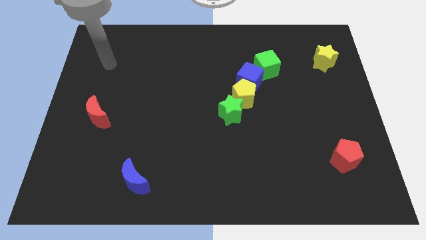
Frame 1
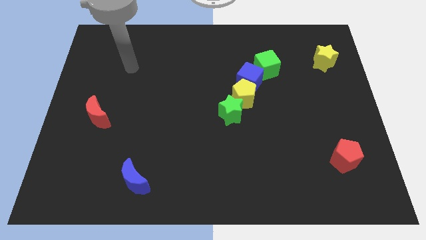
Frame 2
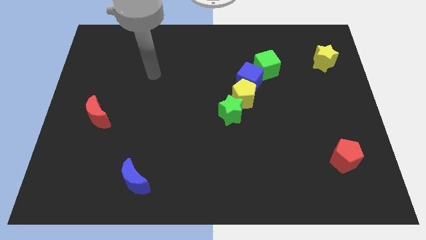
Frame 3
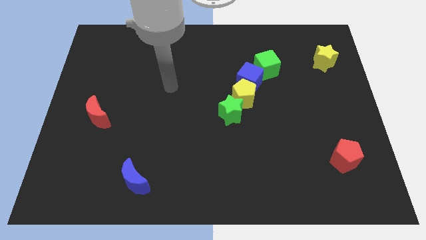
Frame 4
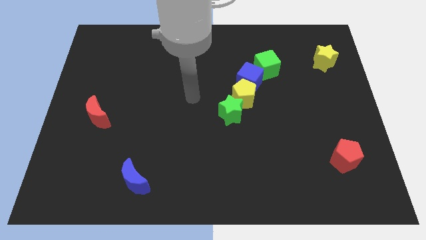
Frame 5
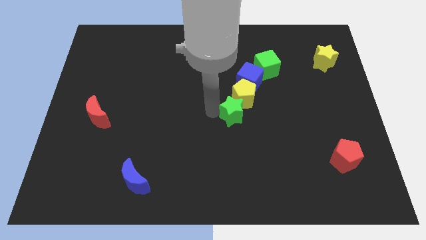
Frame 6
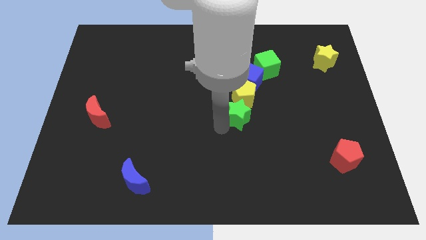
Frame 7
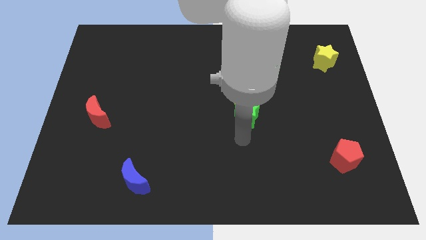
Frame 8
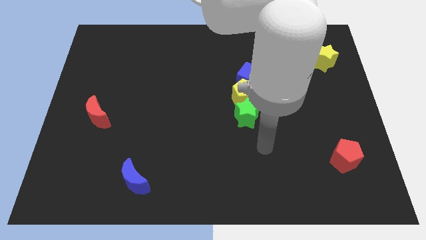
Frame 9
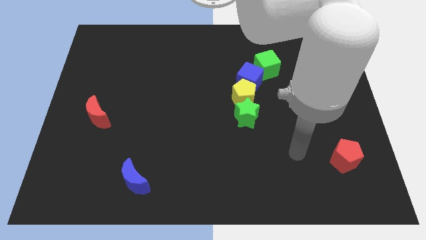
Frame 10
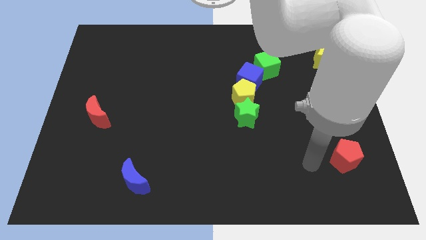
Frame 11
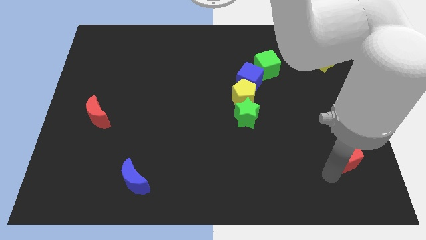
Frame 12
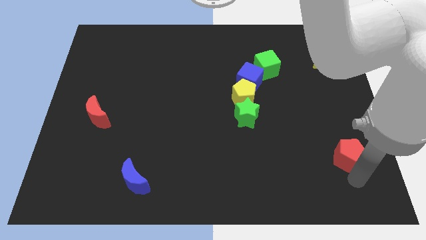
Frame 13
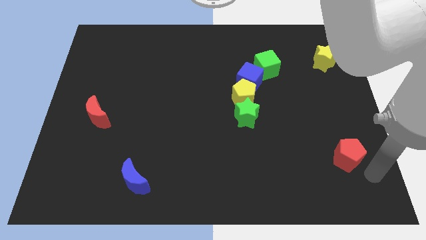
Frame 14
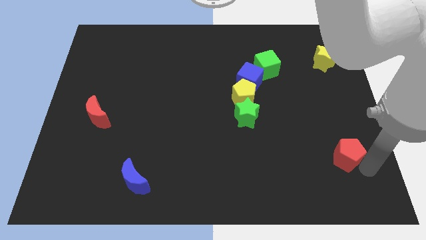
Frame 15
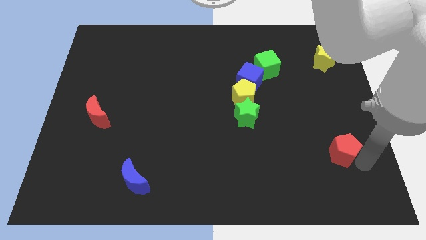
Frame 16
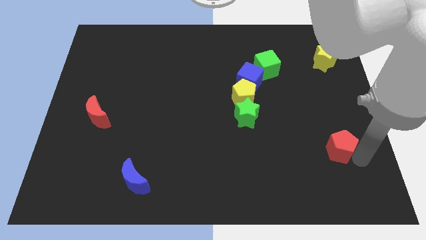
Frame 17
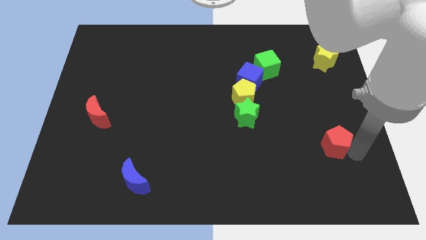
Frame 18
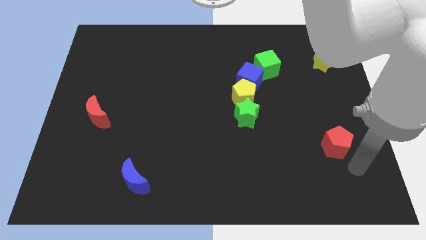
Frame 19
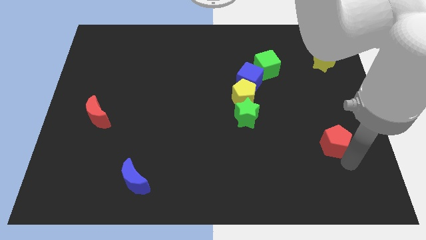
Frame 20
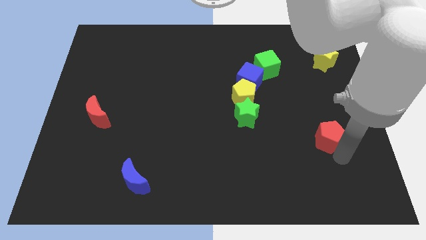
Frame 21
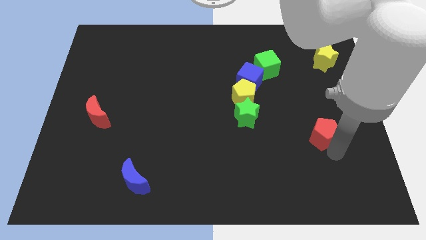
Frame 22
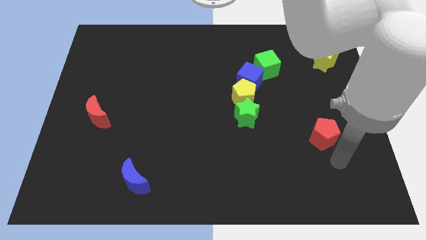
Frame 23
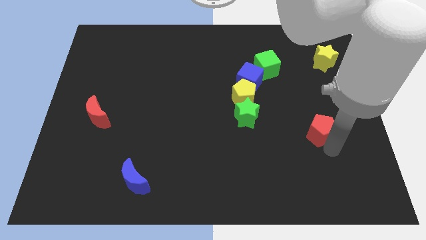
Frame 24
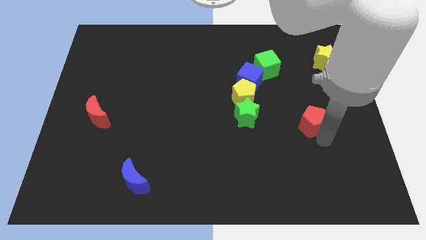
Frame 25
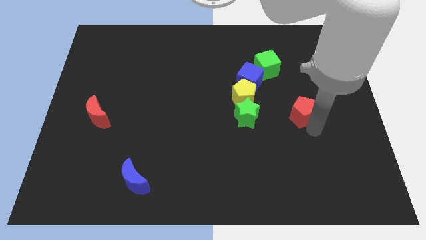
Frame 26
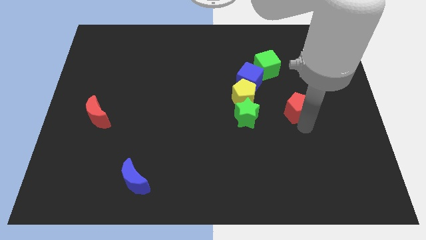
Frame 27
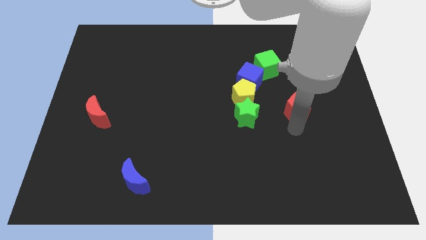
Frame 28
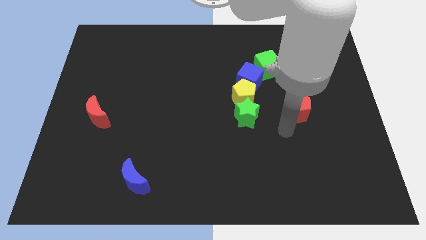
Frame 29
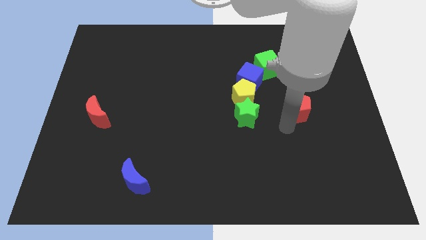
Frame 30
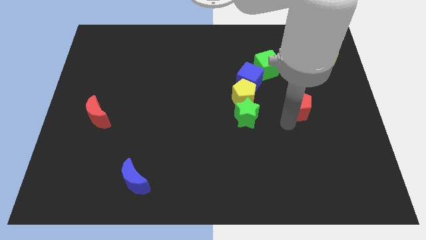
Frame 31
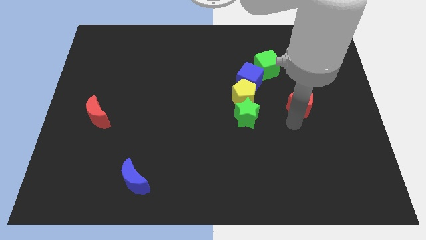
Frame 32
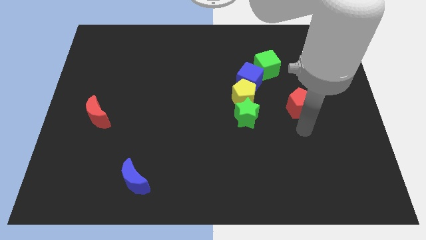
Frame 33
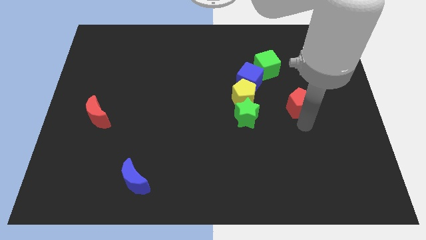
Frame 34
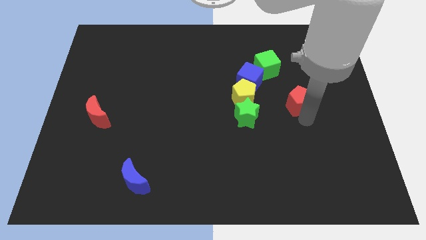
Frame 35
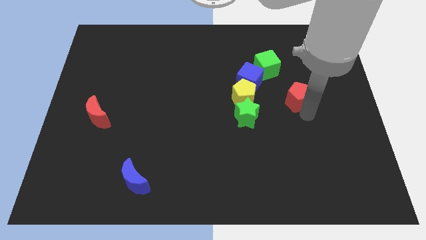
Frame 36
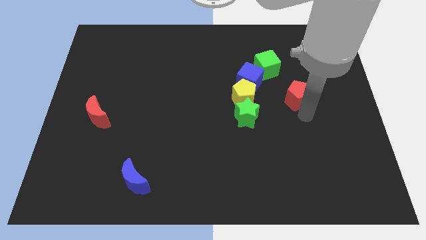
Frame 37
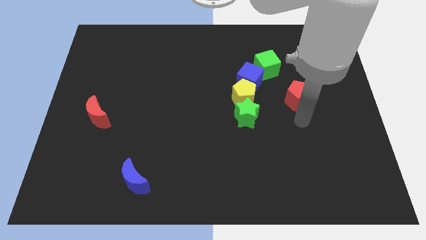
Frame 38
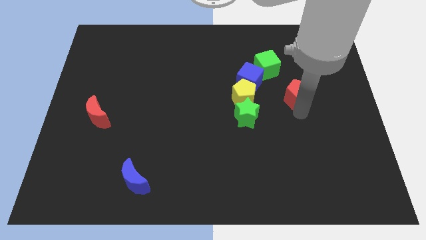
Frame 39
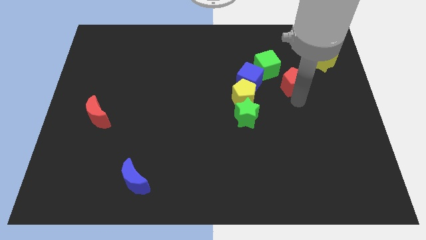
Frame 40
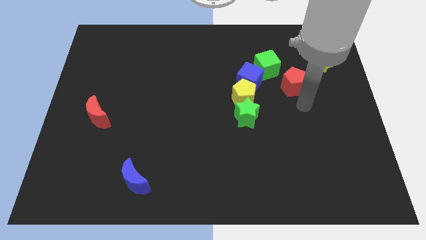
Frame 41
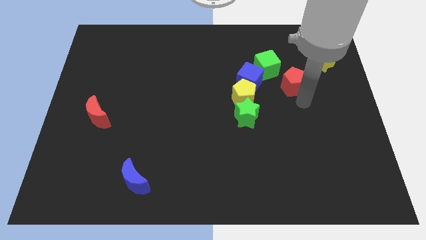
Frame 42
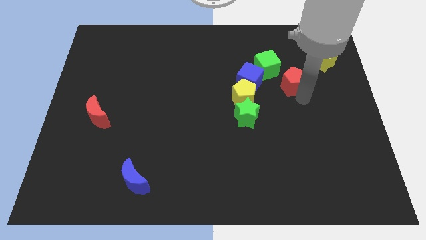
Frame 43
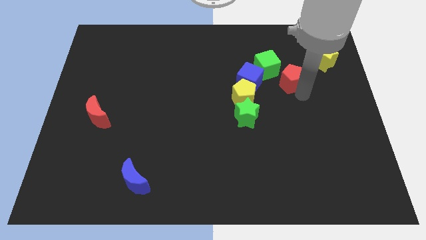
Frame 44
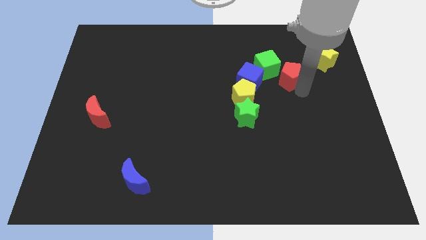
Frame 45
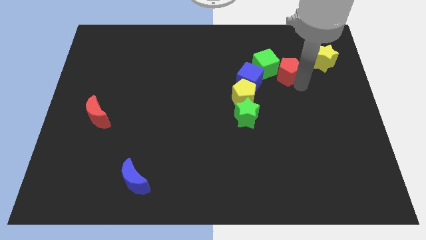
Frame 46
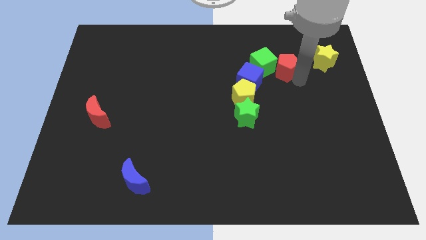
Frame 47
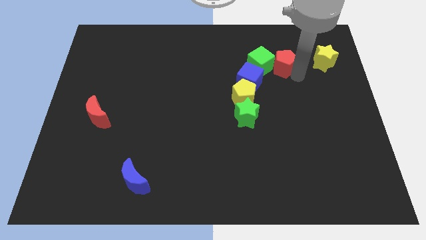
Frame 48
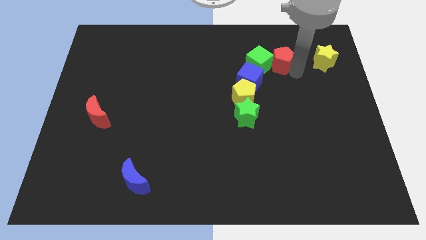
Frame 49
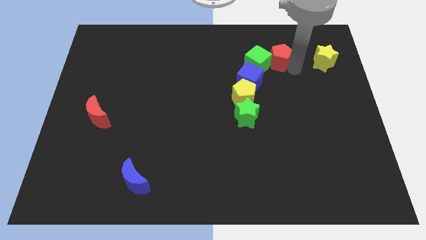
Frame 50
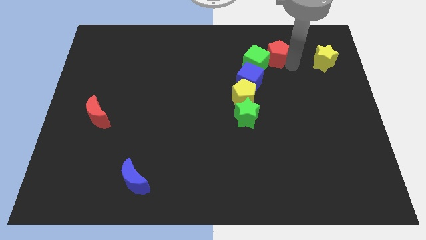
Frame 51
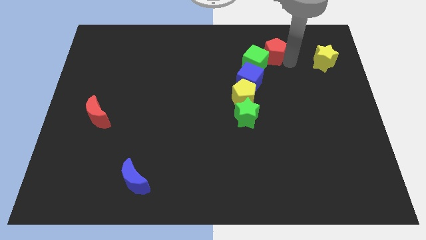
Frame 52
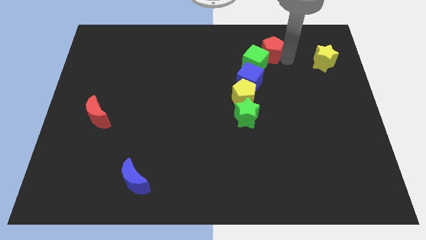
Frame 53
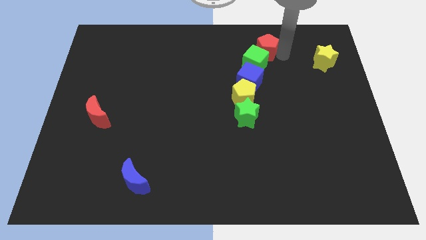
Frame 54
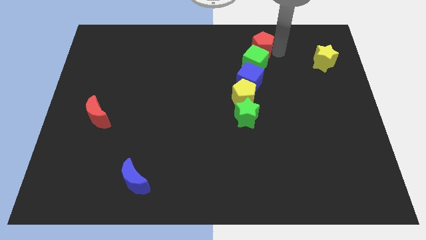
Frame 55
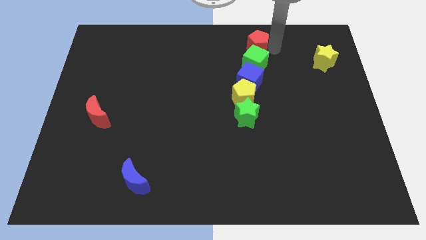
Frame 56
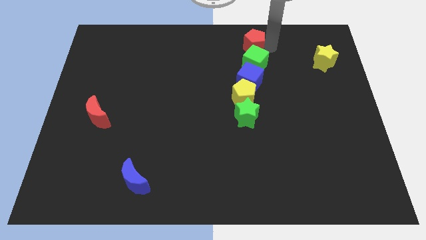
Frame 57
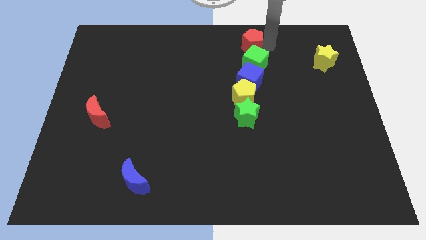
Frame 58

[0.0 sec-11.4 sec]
push the red pentagon to the top side

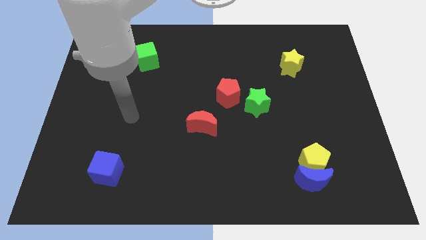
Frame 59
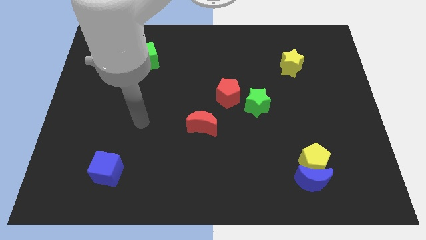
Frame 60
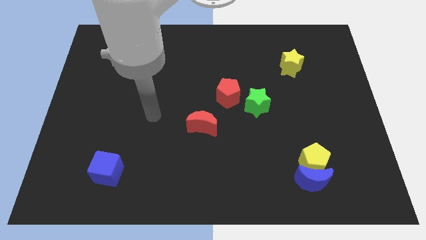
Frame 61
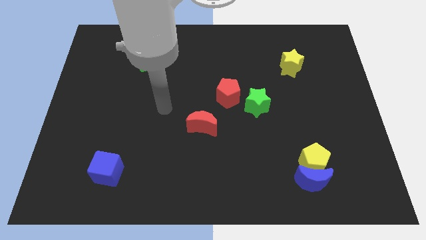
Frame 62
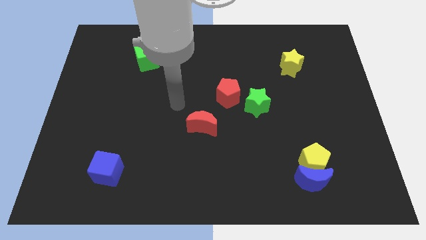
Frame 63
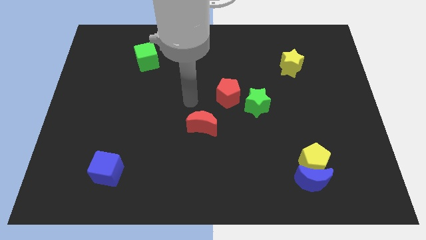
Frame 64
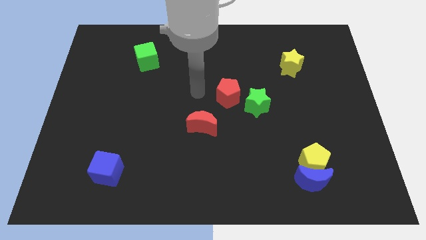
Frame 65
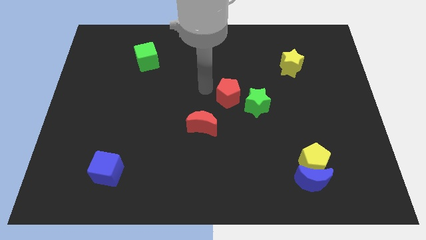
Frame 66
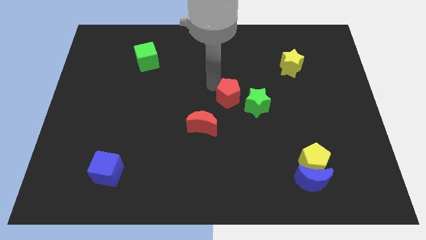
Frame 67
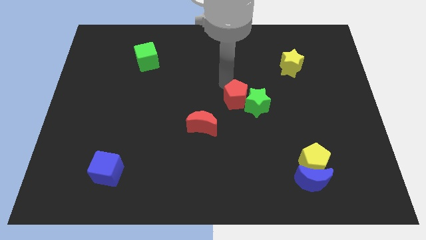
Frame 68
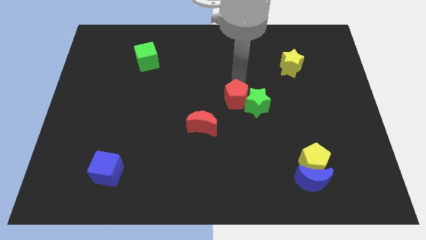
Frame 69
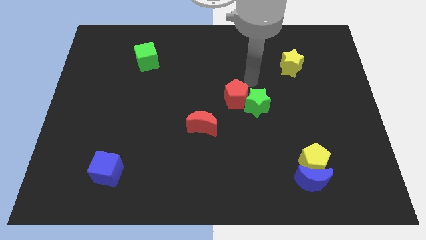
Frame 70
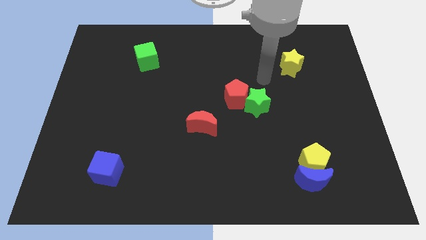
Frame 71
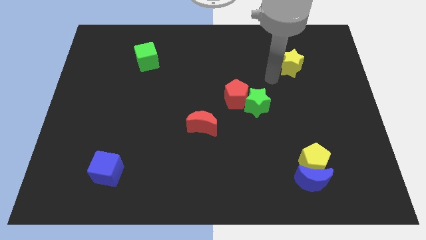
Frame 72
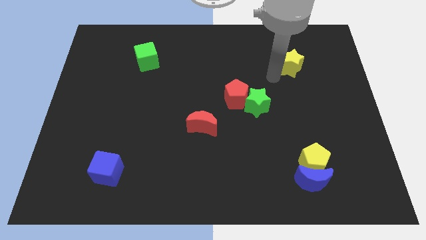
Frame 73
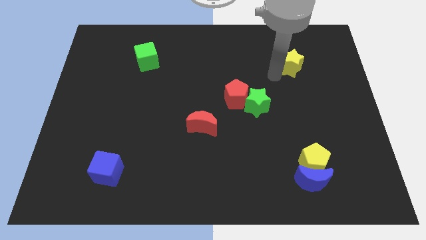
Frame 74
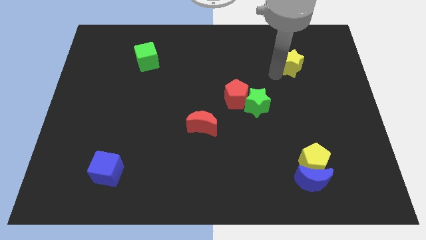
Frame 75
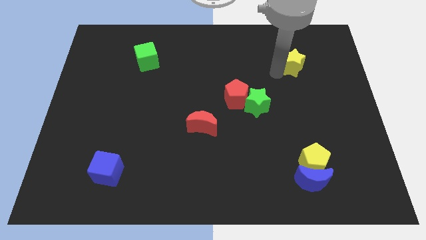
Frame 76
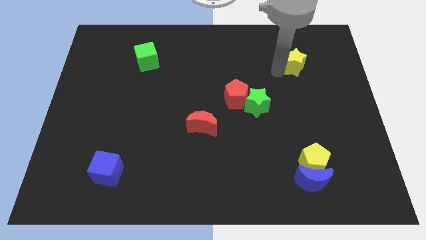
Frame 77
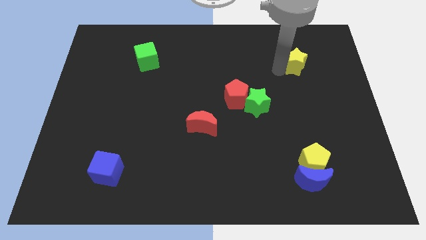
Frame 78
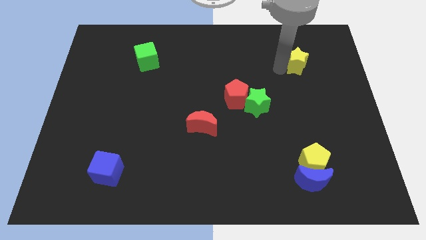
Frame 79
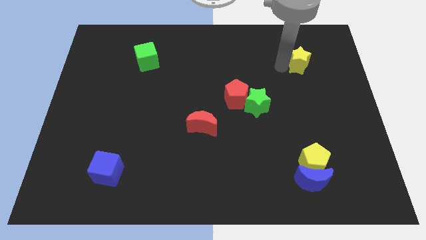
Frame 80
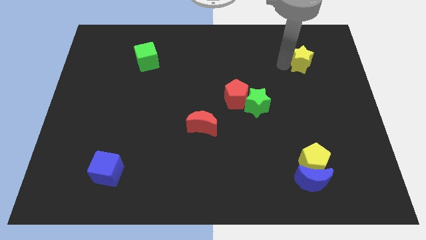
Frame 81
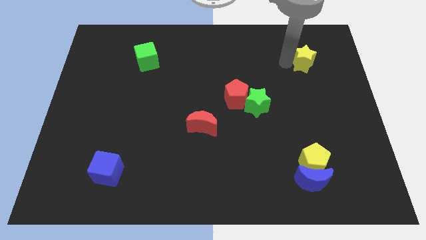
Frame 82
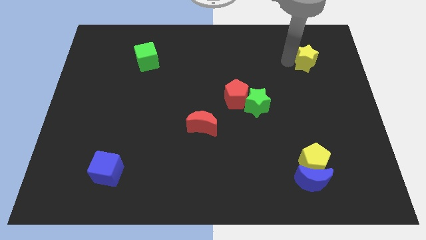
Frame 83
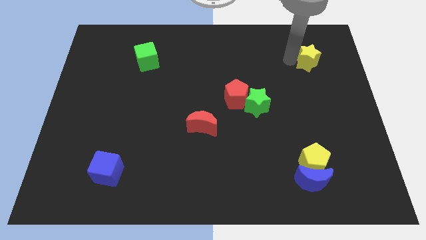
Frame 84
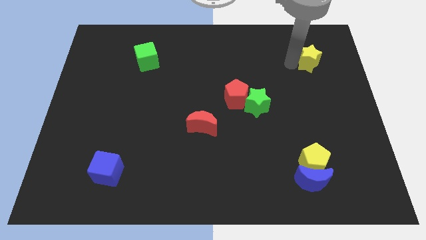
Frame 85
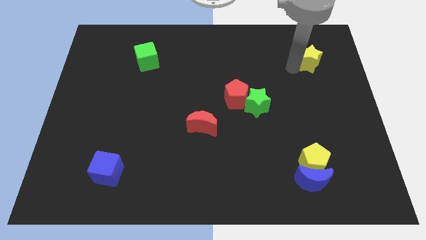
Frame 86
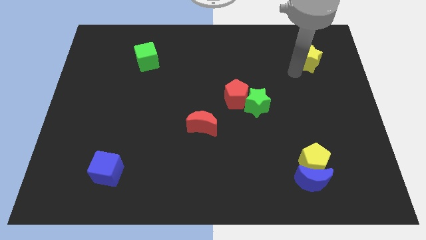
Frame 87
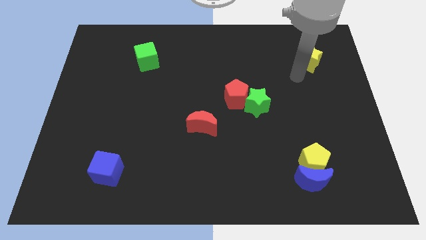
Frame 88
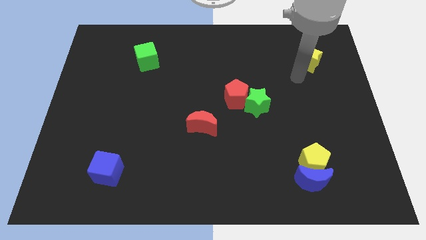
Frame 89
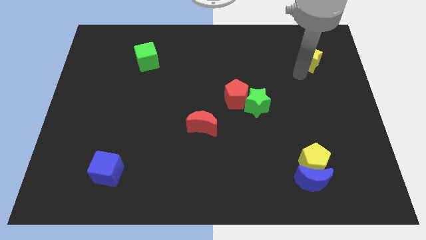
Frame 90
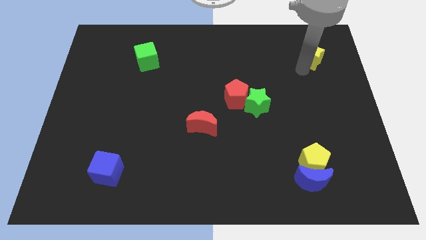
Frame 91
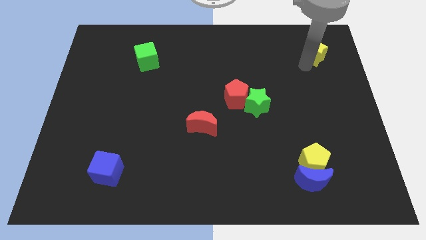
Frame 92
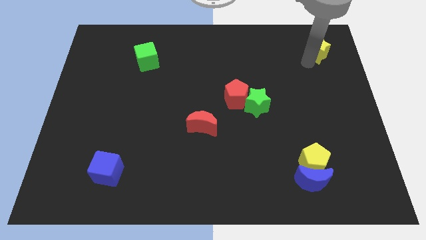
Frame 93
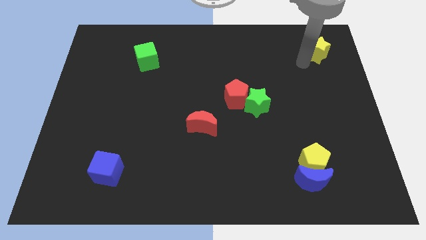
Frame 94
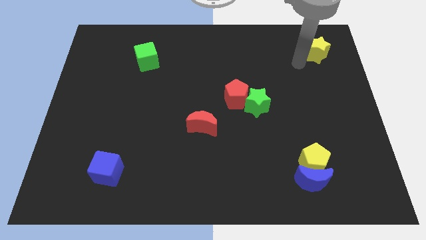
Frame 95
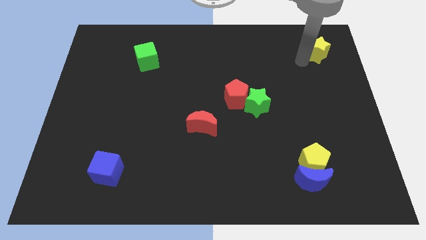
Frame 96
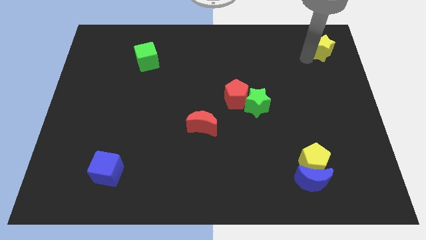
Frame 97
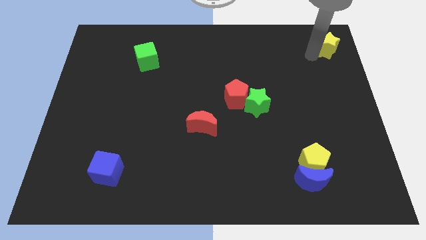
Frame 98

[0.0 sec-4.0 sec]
put the yellow star to the top right of the board
